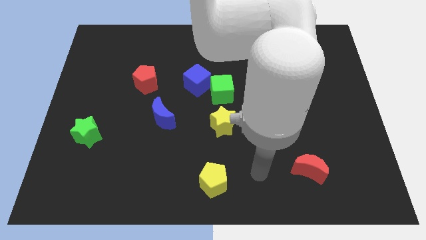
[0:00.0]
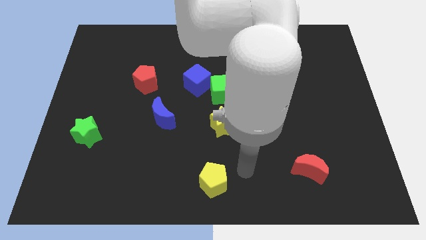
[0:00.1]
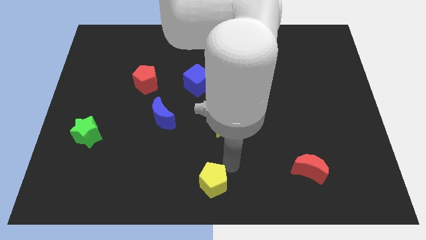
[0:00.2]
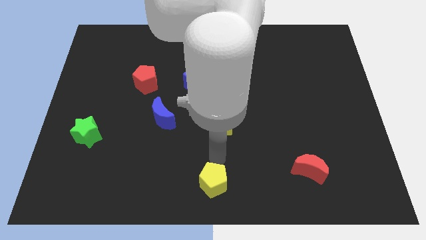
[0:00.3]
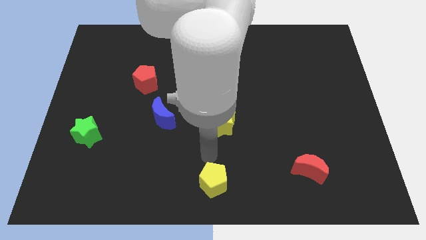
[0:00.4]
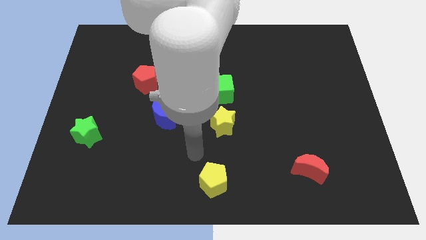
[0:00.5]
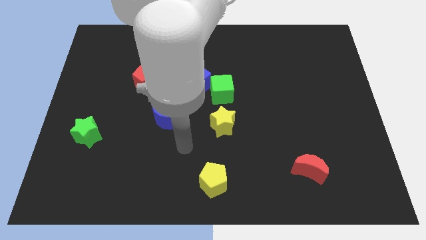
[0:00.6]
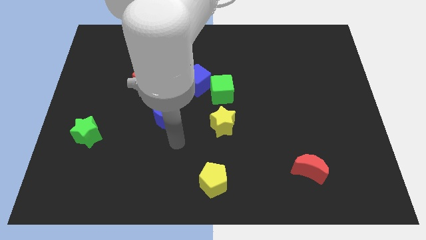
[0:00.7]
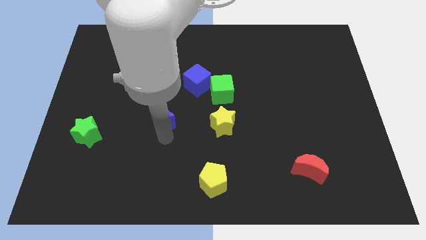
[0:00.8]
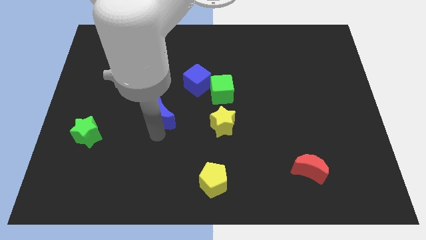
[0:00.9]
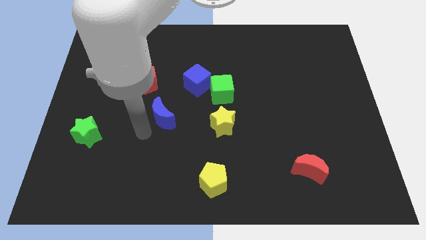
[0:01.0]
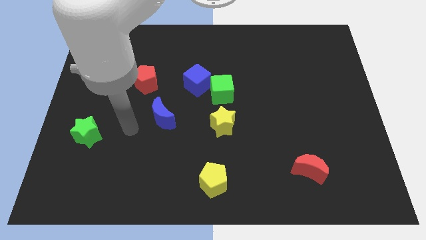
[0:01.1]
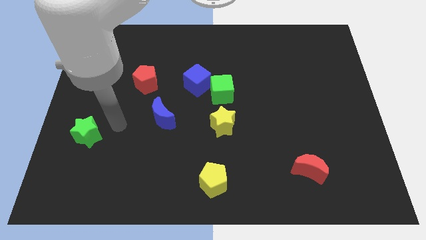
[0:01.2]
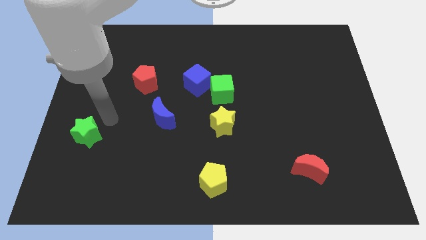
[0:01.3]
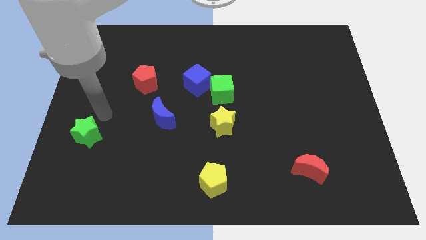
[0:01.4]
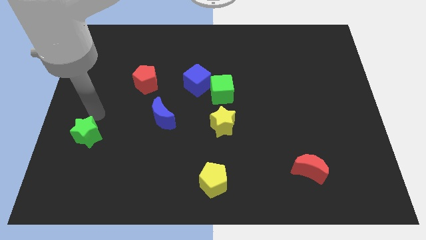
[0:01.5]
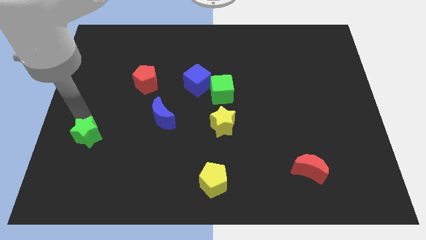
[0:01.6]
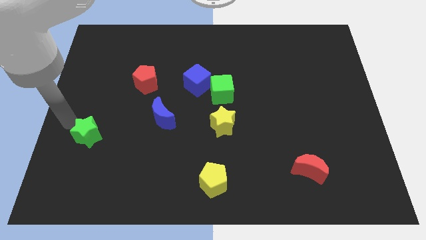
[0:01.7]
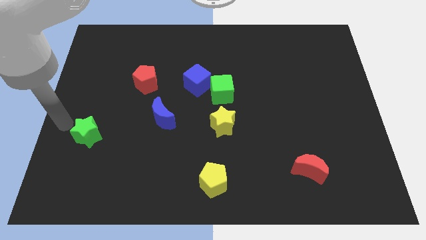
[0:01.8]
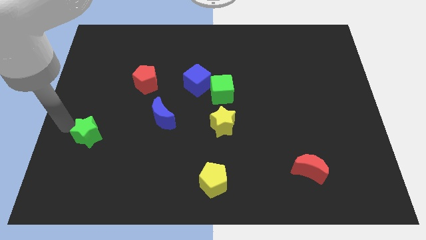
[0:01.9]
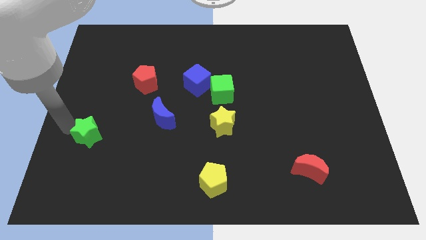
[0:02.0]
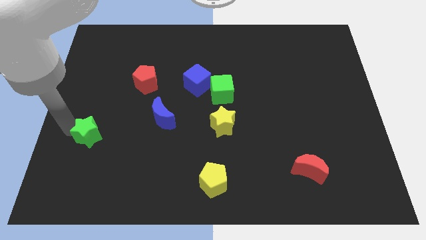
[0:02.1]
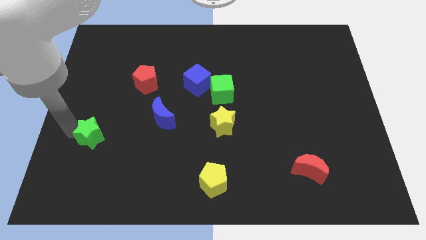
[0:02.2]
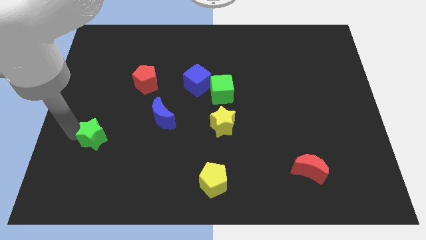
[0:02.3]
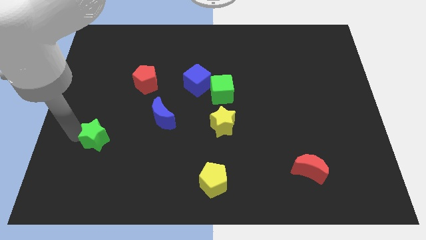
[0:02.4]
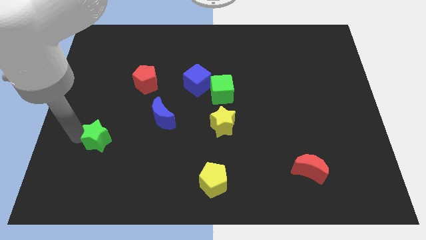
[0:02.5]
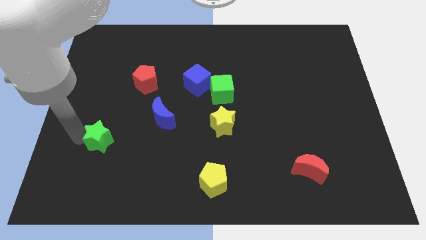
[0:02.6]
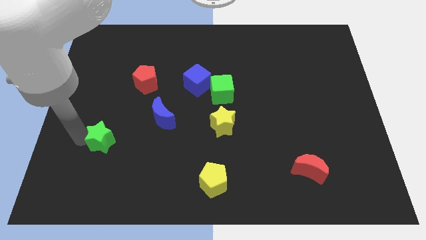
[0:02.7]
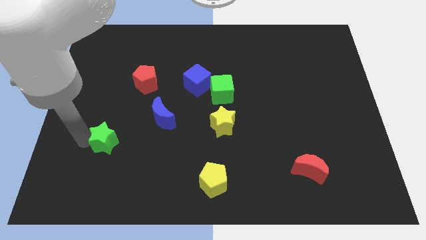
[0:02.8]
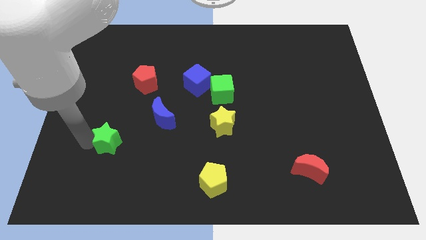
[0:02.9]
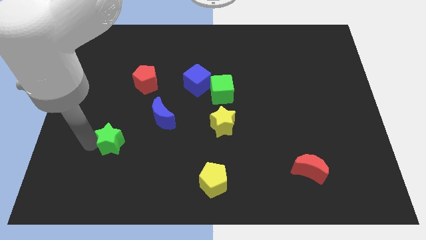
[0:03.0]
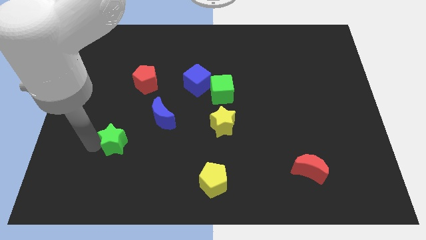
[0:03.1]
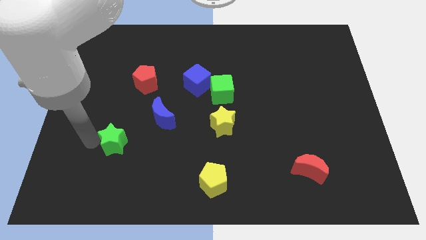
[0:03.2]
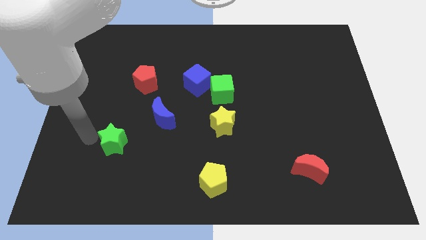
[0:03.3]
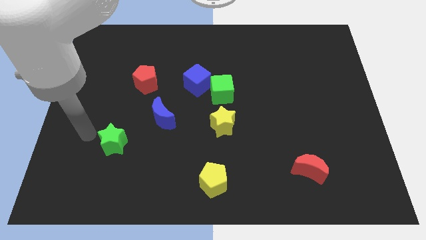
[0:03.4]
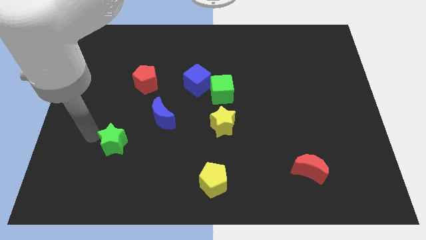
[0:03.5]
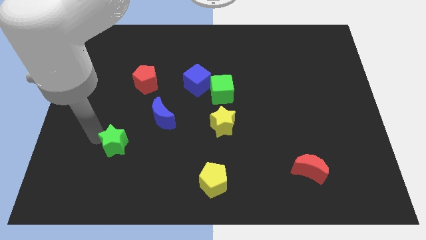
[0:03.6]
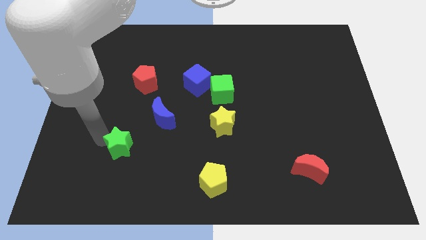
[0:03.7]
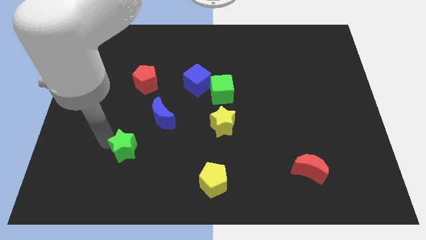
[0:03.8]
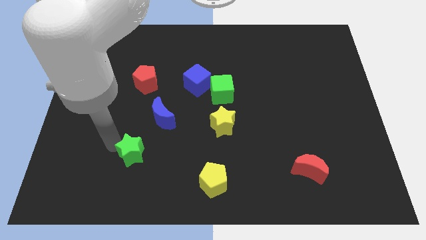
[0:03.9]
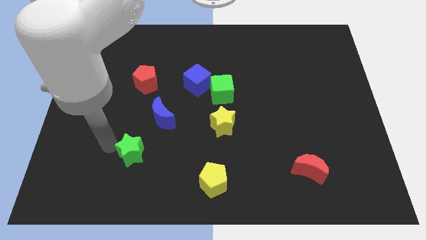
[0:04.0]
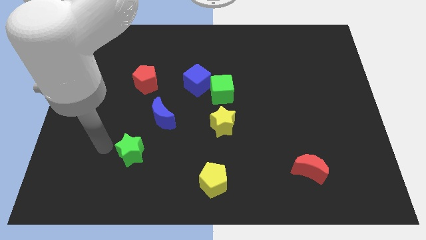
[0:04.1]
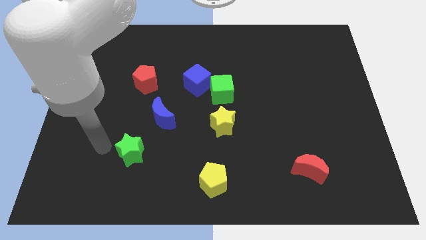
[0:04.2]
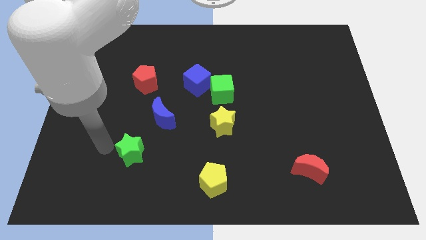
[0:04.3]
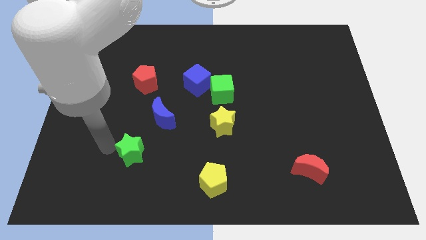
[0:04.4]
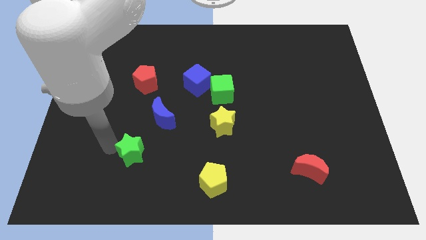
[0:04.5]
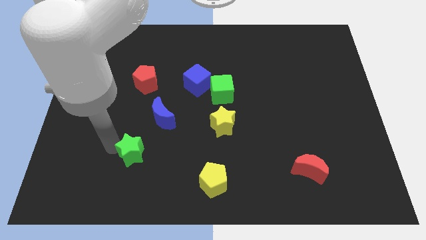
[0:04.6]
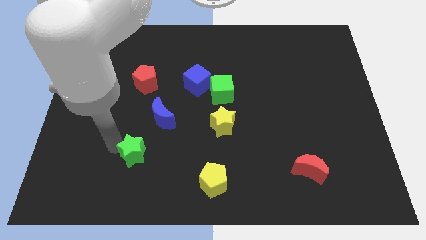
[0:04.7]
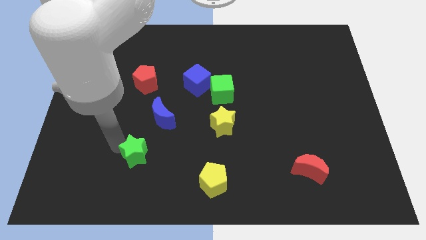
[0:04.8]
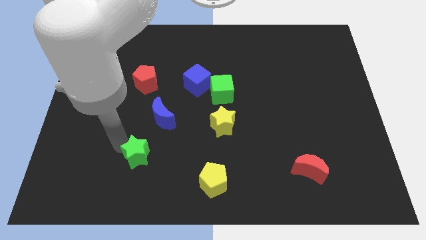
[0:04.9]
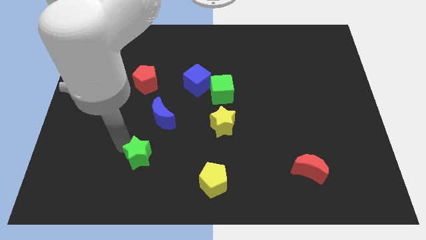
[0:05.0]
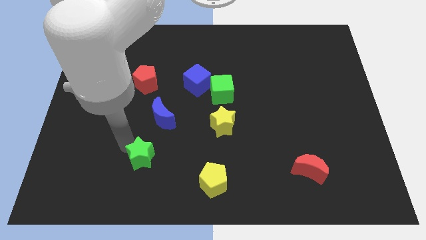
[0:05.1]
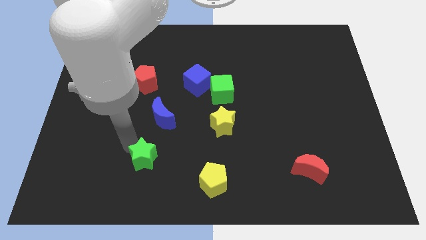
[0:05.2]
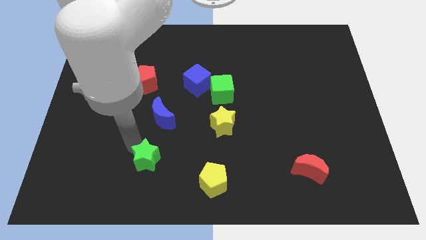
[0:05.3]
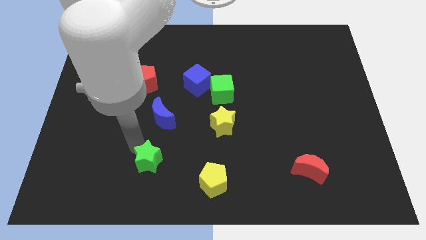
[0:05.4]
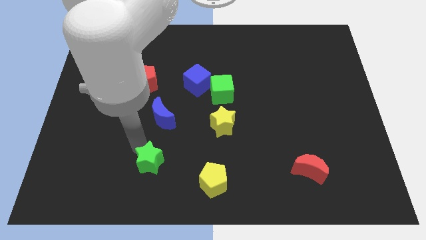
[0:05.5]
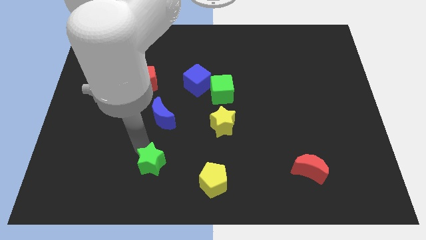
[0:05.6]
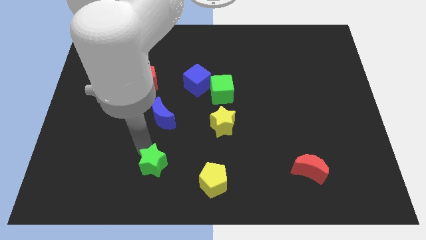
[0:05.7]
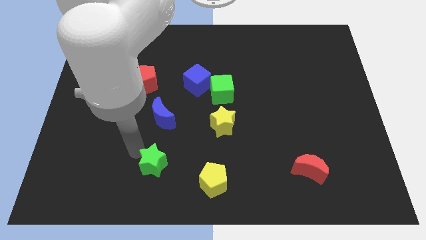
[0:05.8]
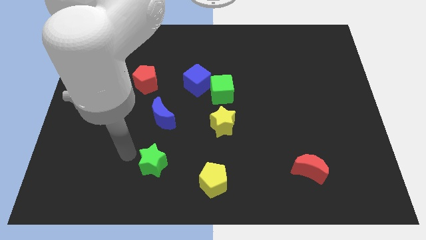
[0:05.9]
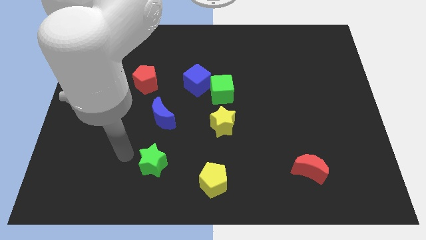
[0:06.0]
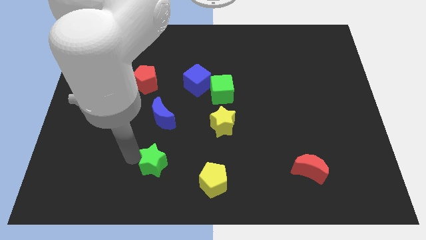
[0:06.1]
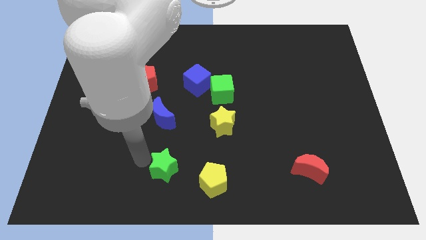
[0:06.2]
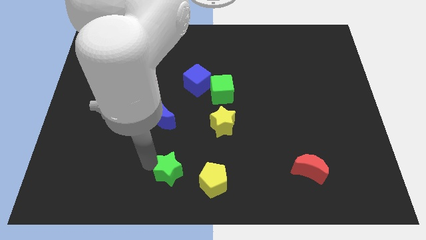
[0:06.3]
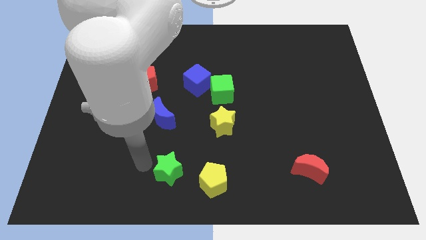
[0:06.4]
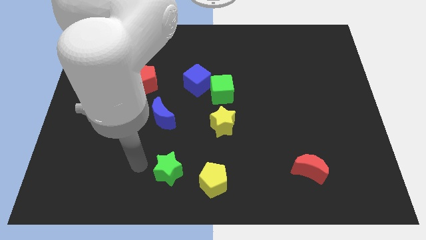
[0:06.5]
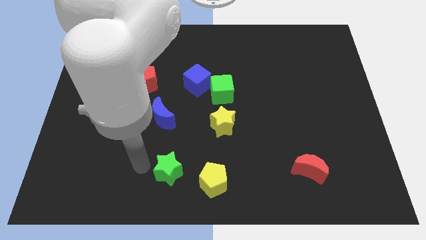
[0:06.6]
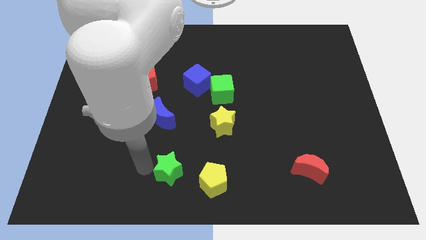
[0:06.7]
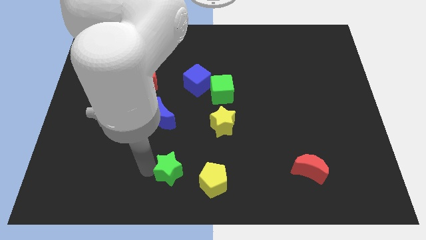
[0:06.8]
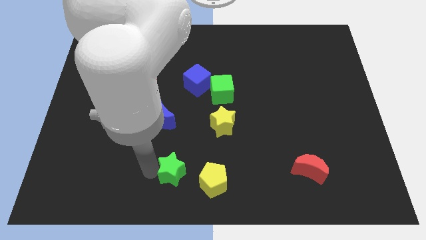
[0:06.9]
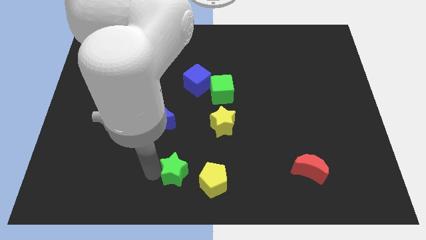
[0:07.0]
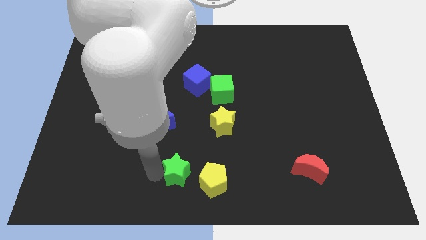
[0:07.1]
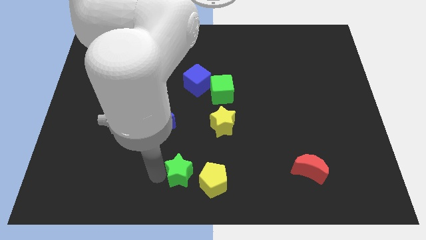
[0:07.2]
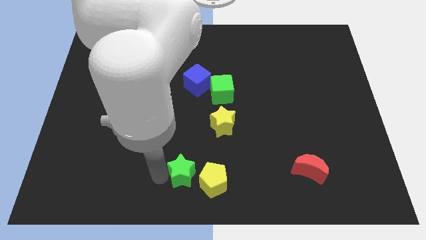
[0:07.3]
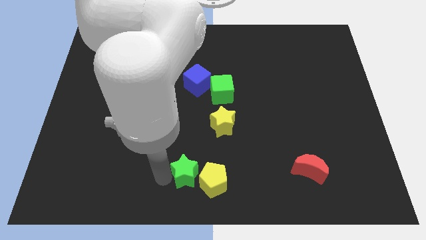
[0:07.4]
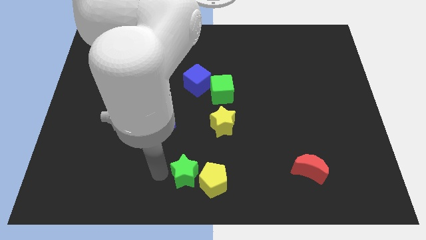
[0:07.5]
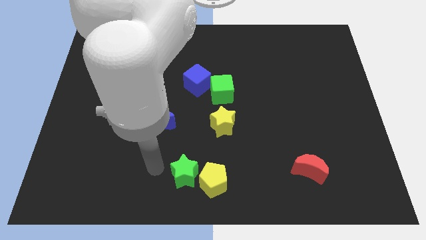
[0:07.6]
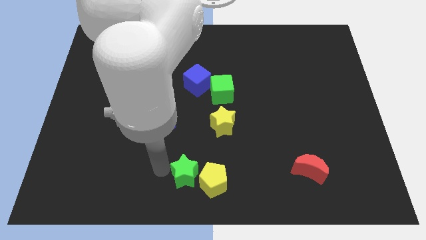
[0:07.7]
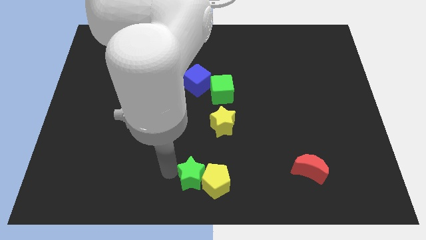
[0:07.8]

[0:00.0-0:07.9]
put the green star close to the yellow pentagon

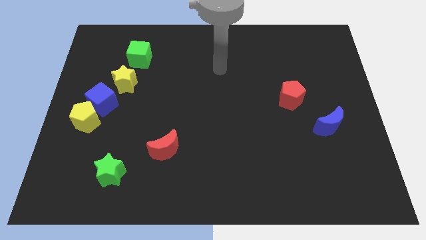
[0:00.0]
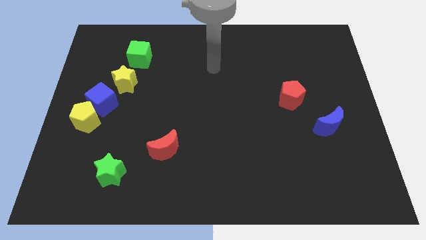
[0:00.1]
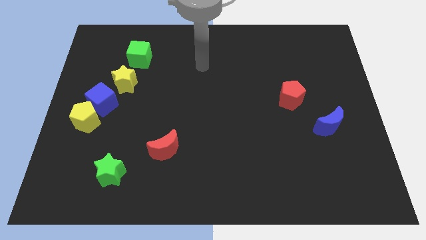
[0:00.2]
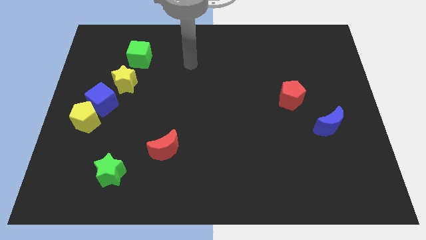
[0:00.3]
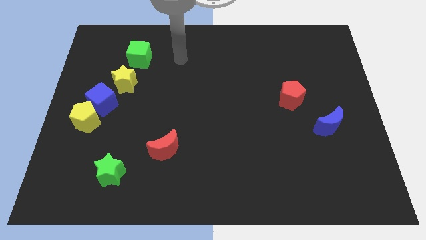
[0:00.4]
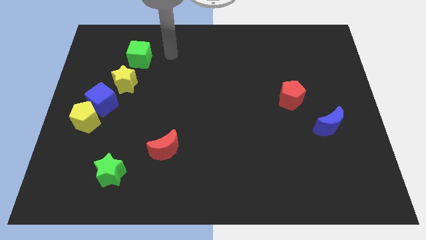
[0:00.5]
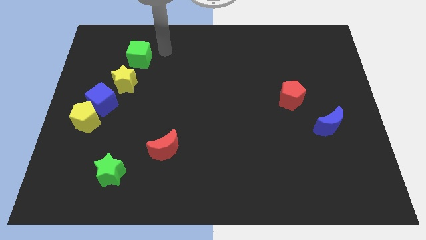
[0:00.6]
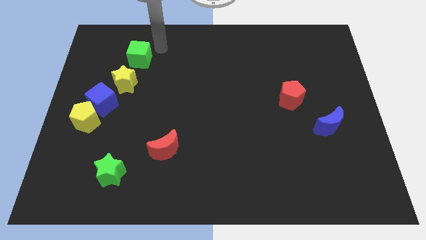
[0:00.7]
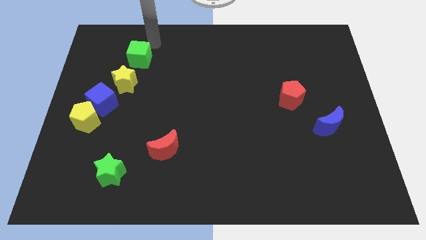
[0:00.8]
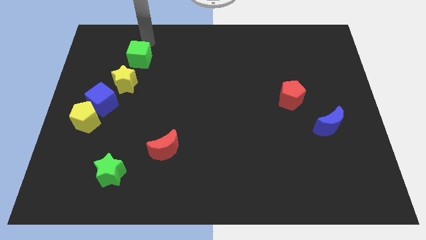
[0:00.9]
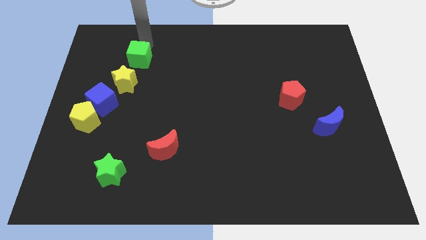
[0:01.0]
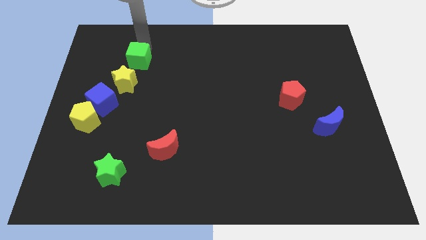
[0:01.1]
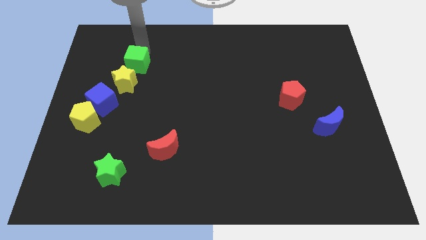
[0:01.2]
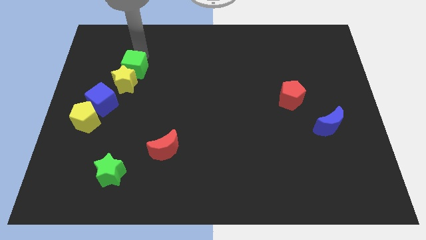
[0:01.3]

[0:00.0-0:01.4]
put the green cube to the yellow star
